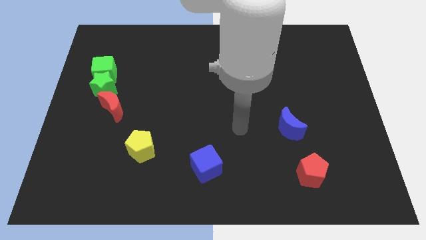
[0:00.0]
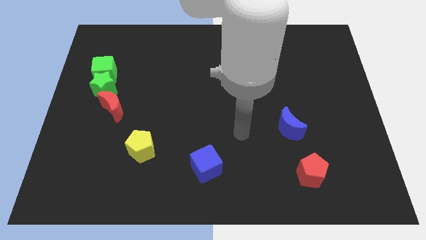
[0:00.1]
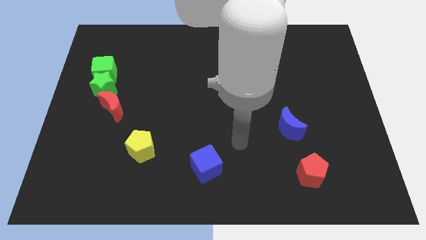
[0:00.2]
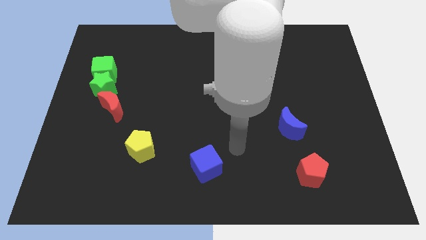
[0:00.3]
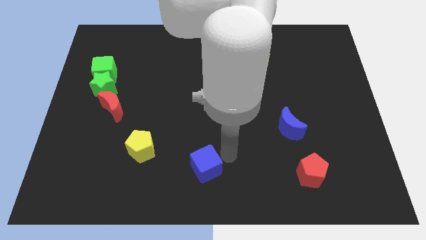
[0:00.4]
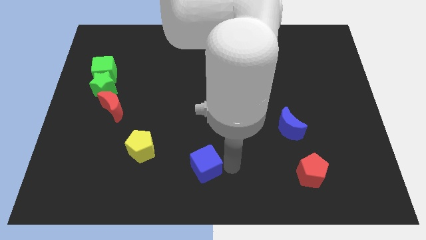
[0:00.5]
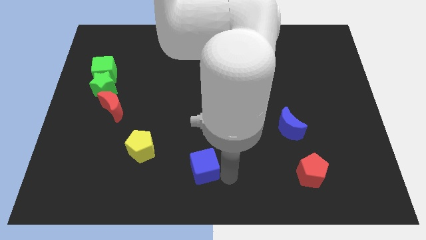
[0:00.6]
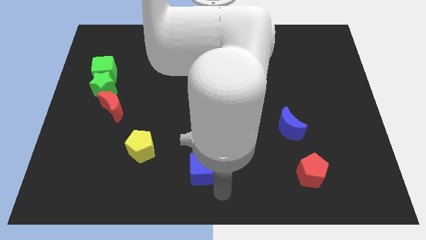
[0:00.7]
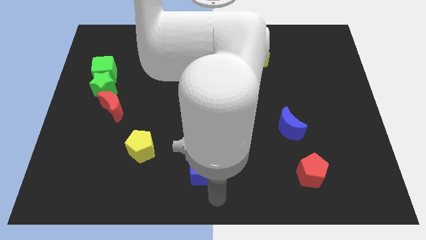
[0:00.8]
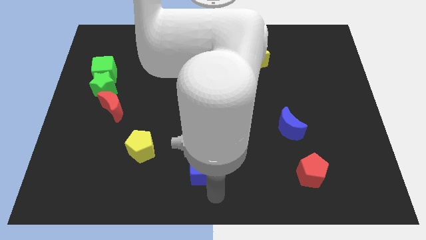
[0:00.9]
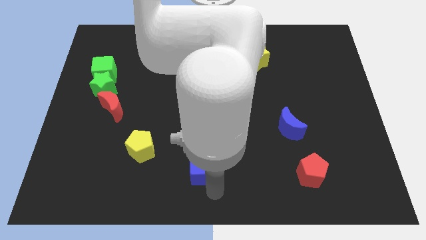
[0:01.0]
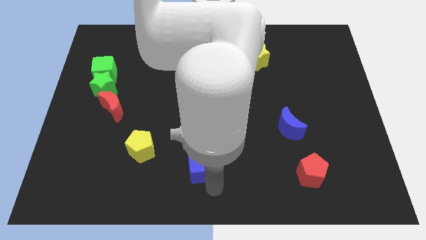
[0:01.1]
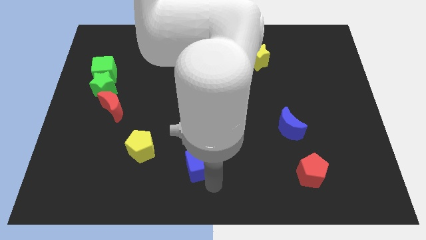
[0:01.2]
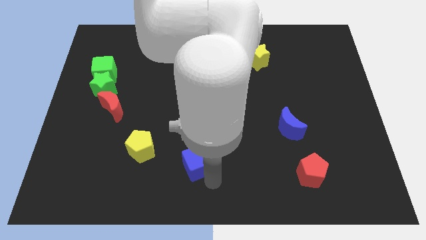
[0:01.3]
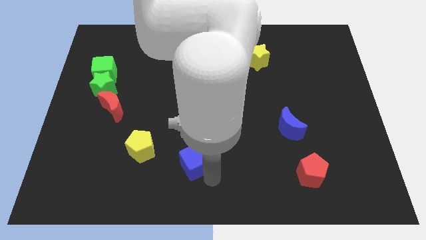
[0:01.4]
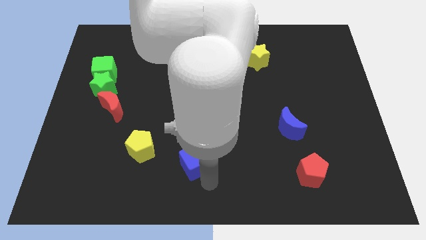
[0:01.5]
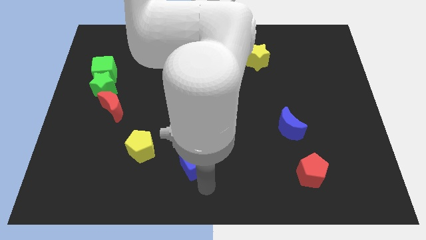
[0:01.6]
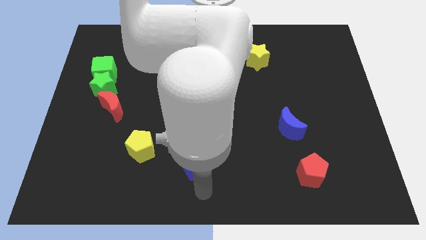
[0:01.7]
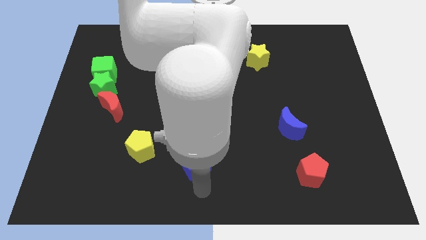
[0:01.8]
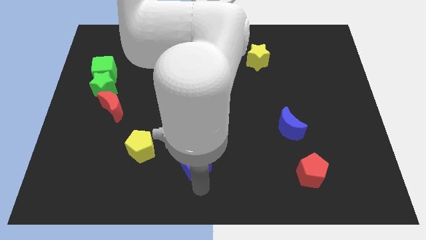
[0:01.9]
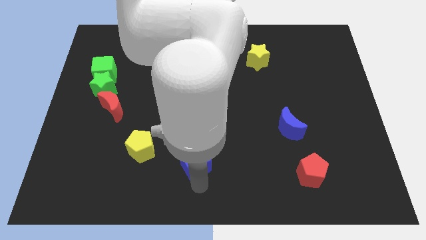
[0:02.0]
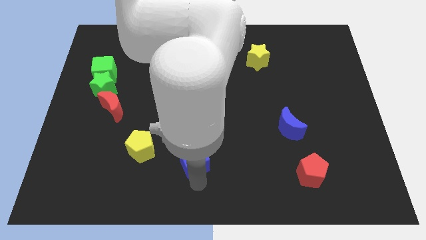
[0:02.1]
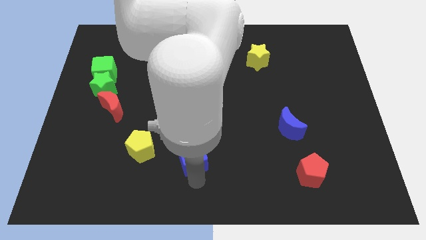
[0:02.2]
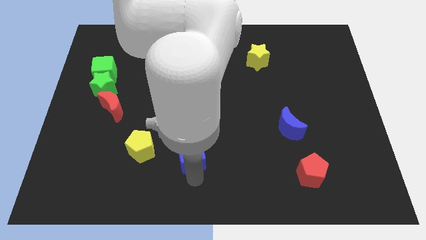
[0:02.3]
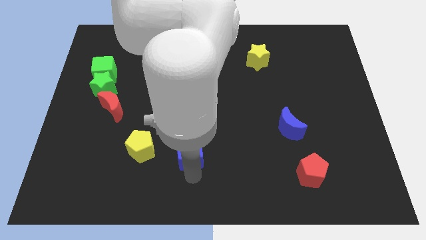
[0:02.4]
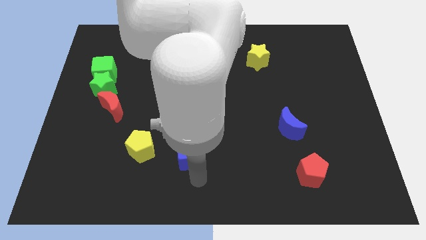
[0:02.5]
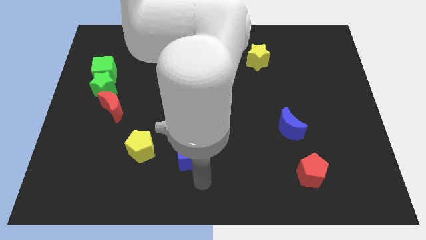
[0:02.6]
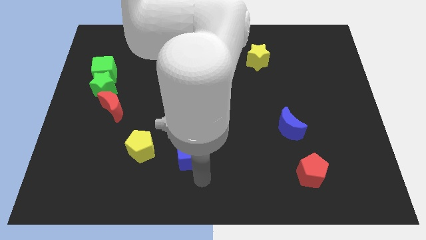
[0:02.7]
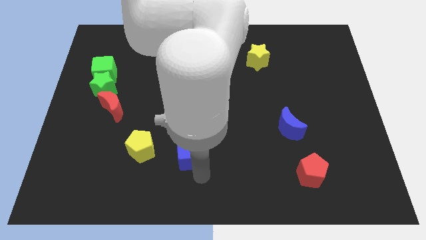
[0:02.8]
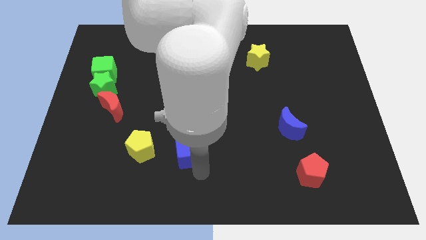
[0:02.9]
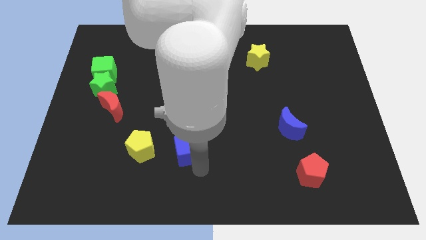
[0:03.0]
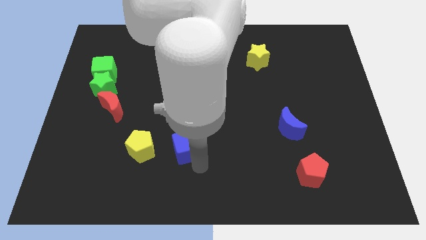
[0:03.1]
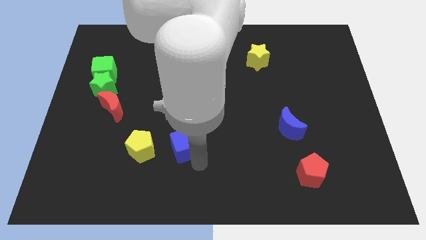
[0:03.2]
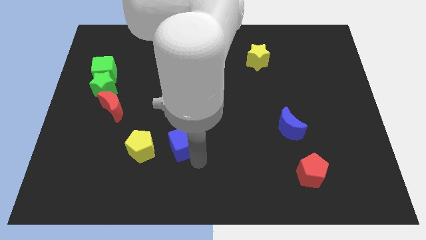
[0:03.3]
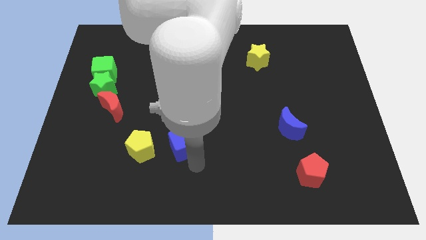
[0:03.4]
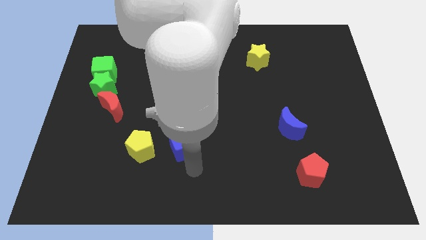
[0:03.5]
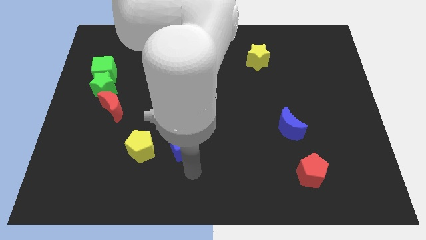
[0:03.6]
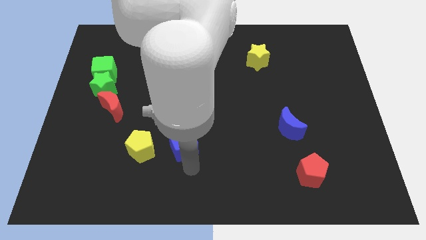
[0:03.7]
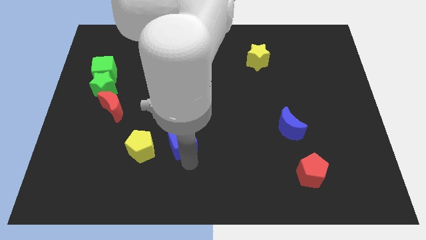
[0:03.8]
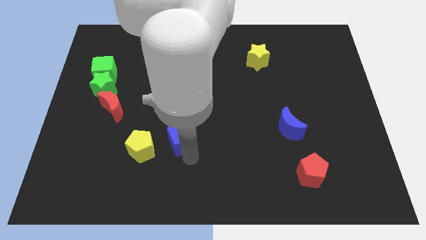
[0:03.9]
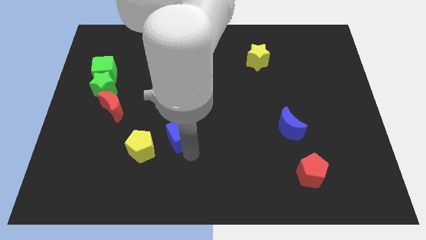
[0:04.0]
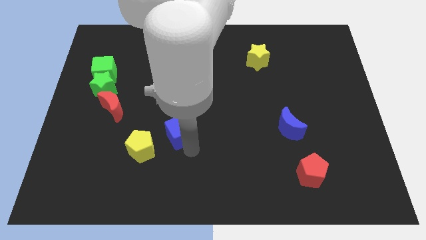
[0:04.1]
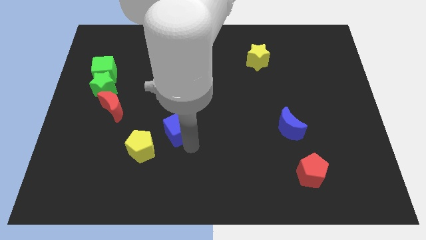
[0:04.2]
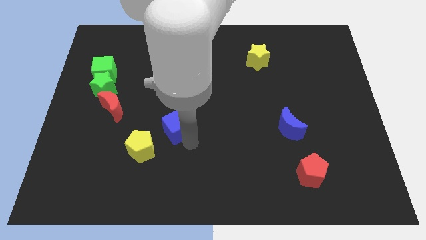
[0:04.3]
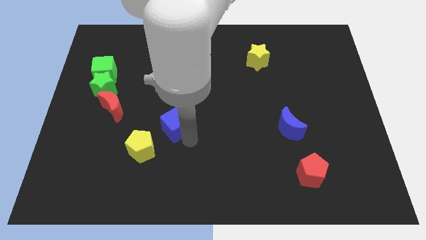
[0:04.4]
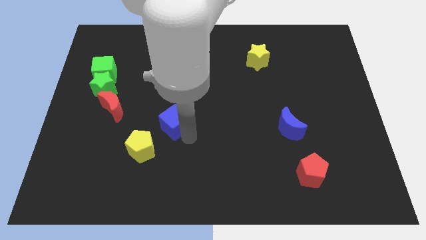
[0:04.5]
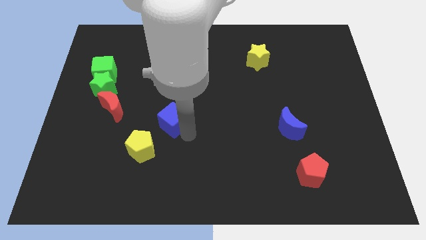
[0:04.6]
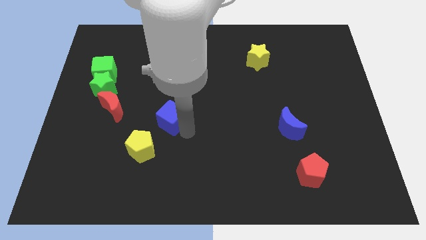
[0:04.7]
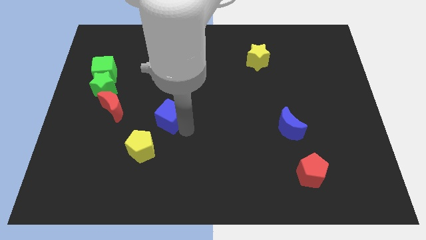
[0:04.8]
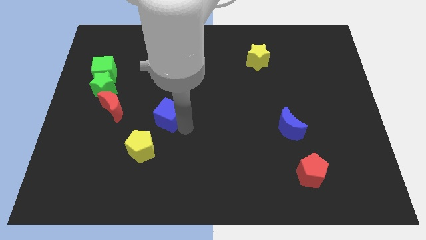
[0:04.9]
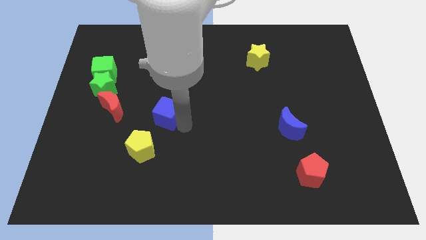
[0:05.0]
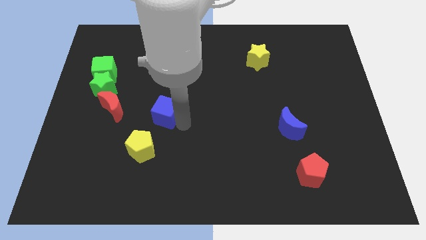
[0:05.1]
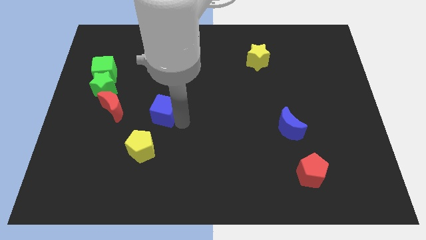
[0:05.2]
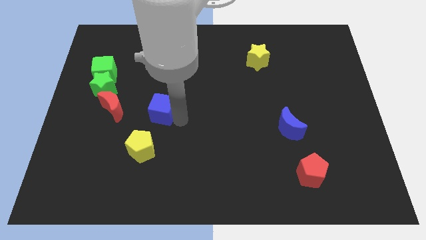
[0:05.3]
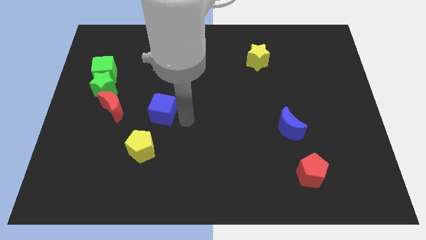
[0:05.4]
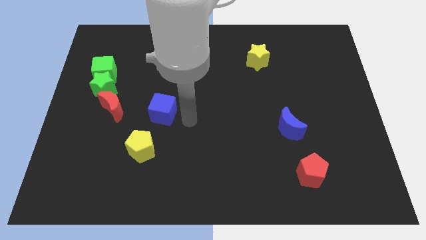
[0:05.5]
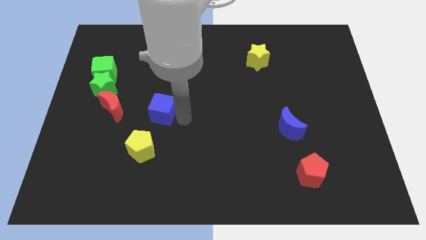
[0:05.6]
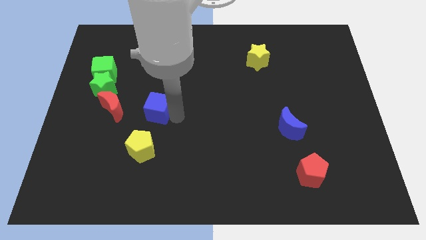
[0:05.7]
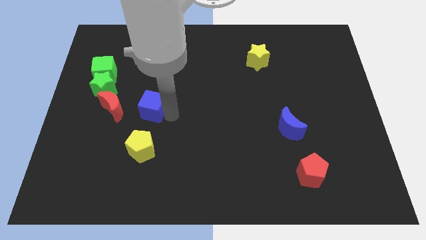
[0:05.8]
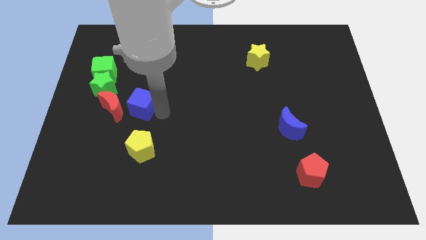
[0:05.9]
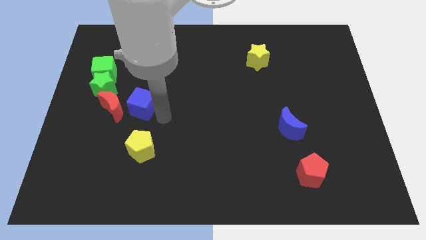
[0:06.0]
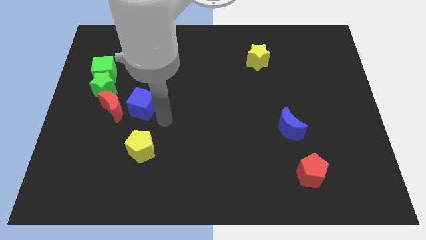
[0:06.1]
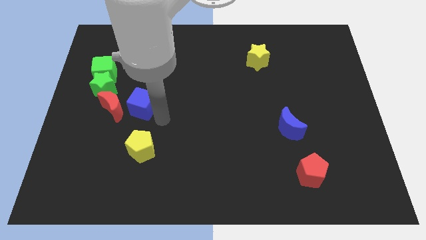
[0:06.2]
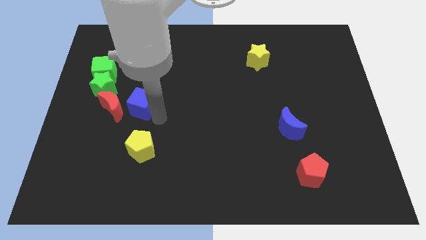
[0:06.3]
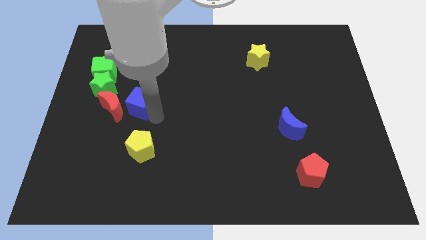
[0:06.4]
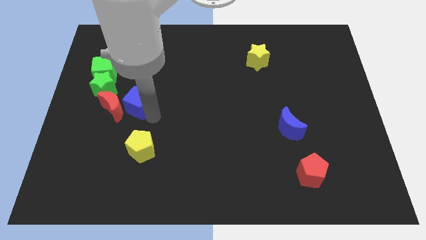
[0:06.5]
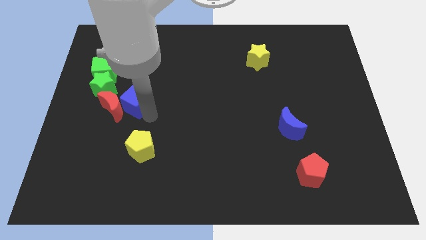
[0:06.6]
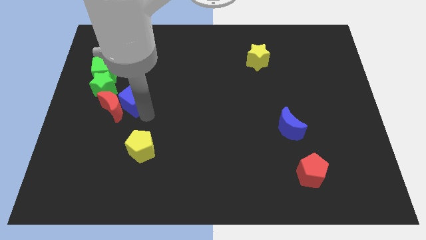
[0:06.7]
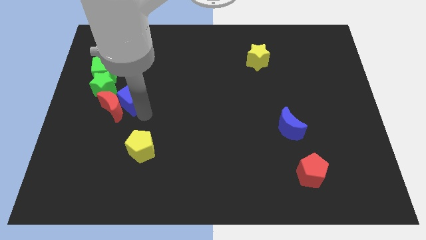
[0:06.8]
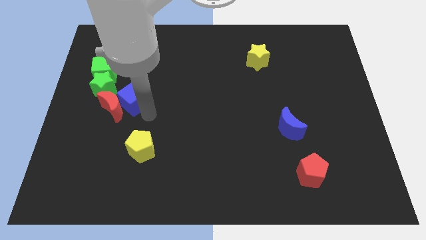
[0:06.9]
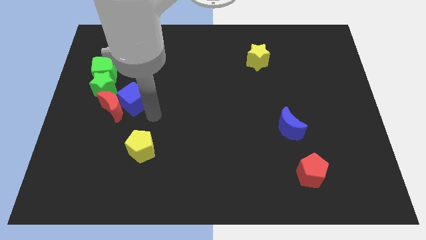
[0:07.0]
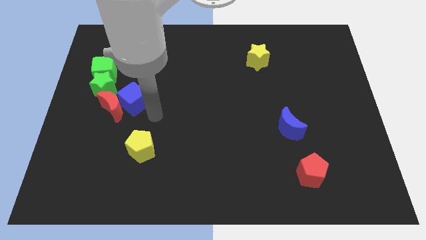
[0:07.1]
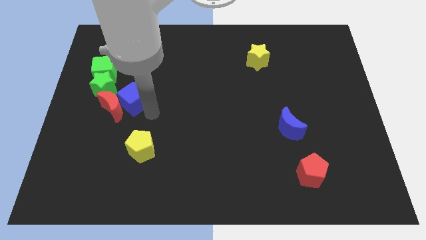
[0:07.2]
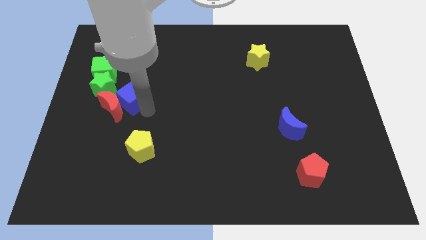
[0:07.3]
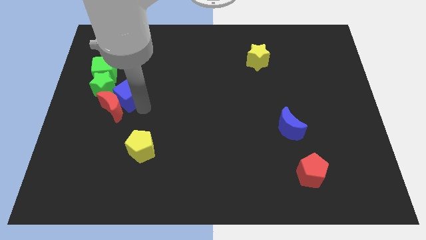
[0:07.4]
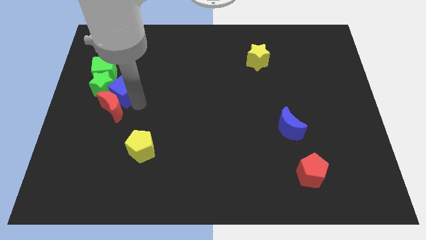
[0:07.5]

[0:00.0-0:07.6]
put the blue cube close to the green star

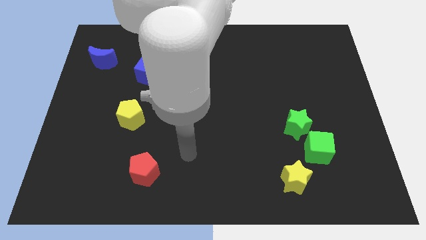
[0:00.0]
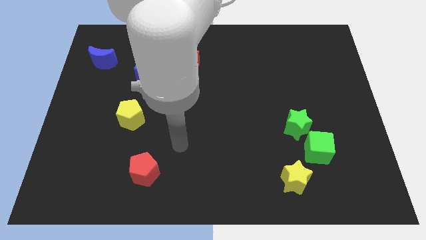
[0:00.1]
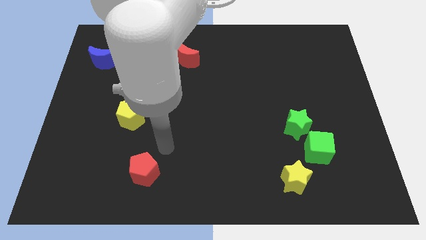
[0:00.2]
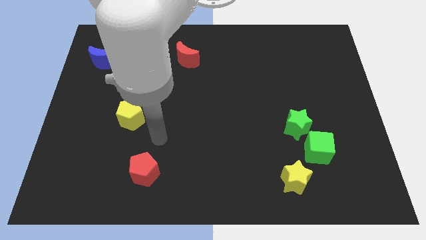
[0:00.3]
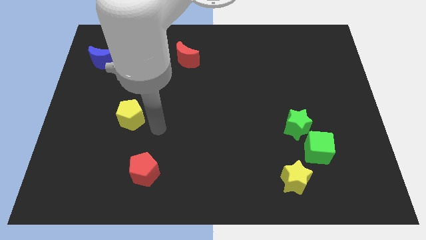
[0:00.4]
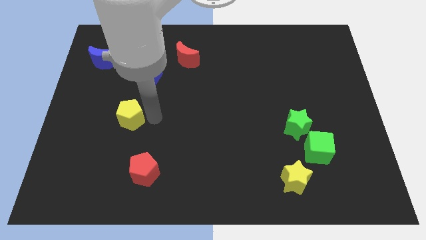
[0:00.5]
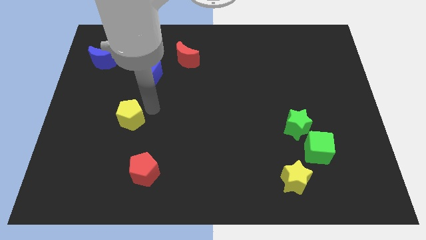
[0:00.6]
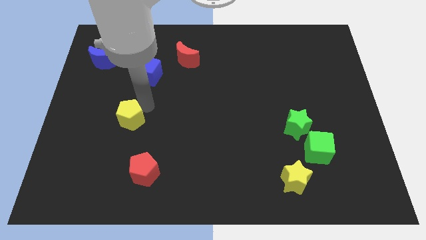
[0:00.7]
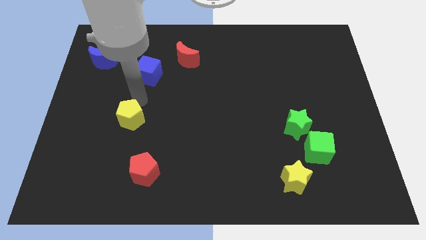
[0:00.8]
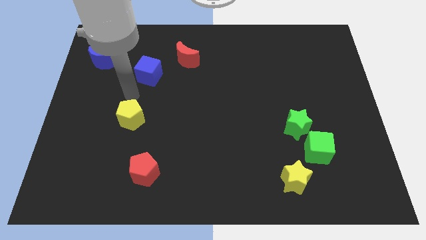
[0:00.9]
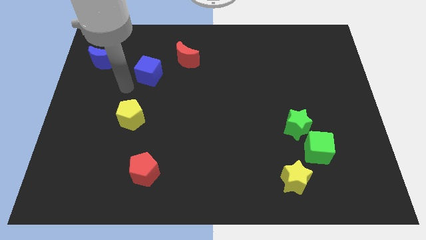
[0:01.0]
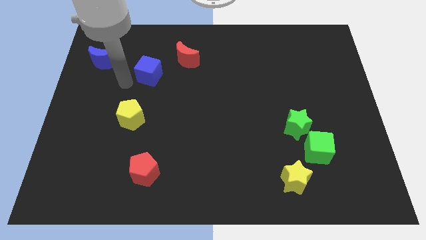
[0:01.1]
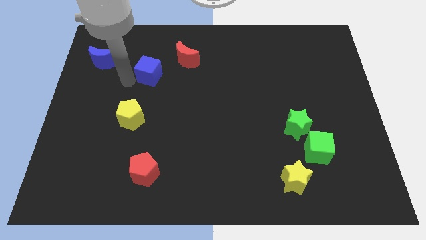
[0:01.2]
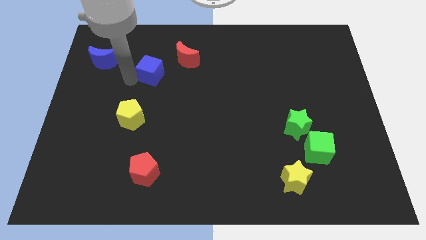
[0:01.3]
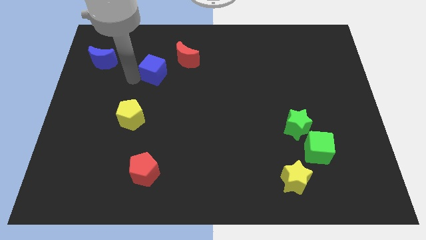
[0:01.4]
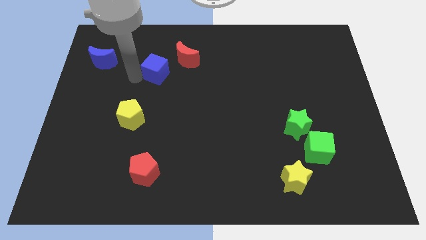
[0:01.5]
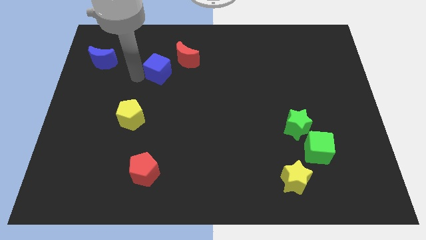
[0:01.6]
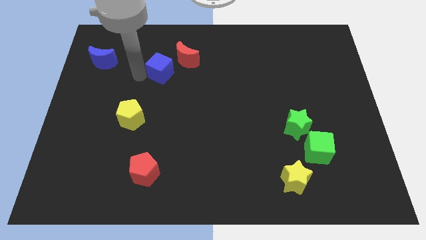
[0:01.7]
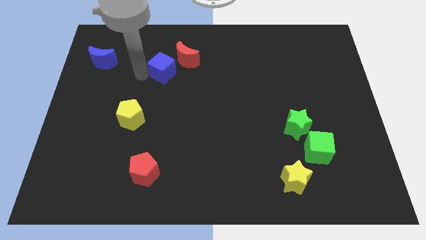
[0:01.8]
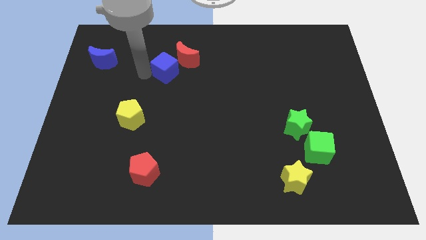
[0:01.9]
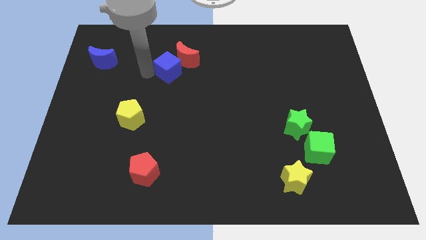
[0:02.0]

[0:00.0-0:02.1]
put the blue cube next to the red moon
